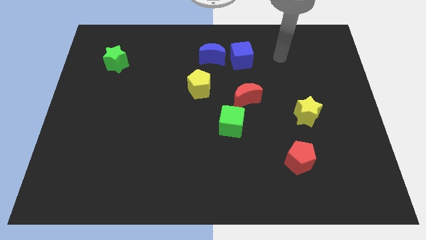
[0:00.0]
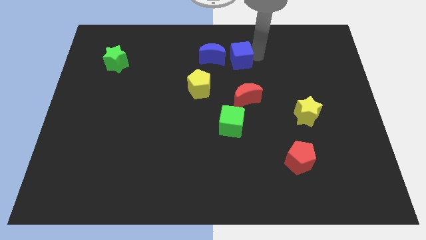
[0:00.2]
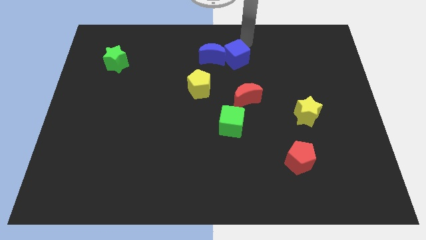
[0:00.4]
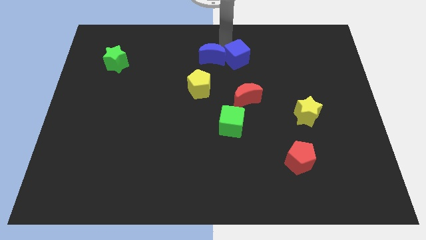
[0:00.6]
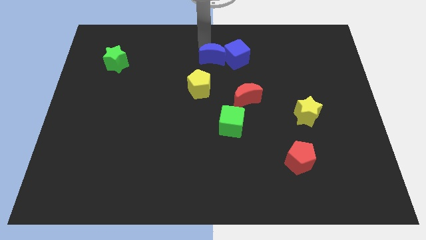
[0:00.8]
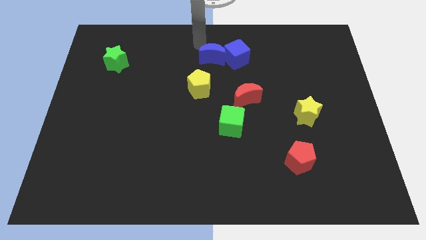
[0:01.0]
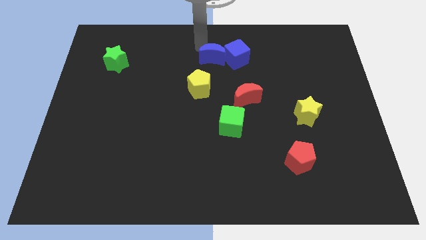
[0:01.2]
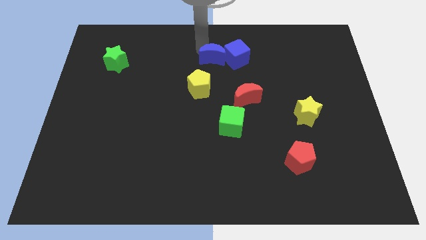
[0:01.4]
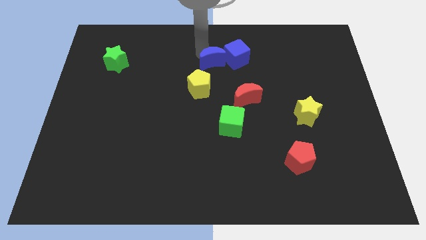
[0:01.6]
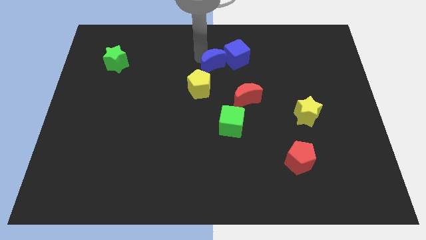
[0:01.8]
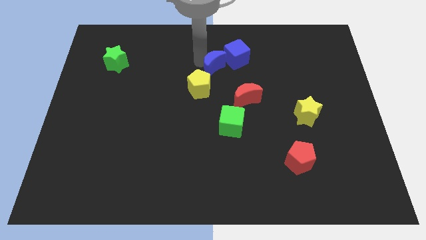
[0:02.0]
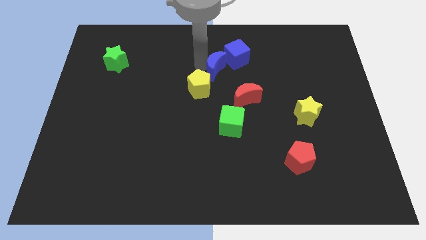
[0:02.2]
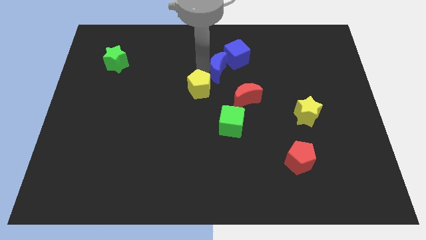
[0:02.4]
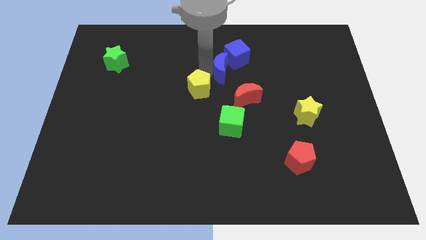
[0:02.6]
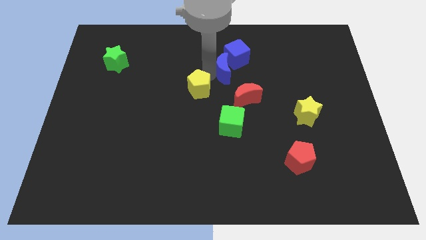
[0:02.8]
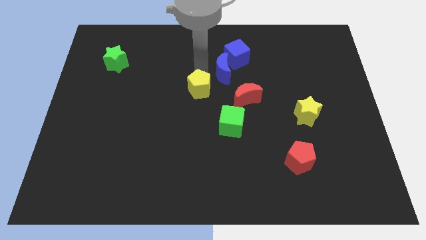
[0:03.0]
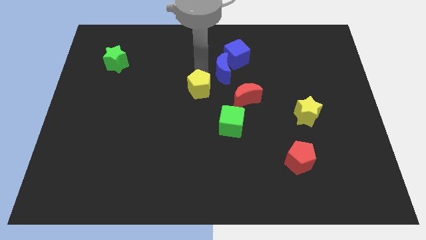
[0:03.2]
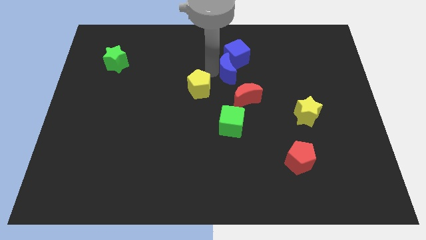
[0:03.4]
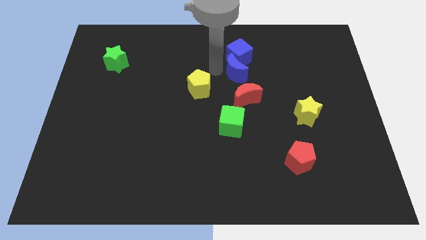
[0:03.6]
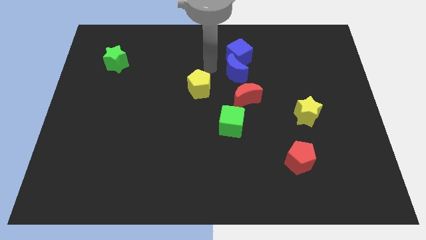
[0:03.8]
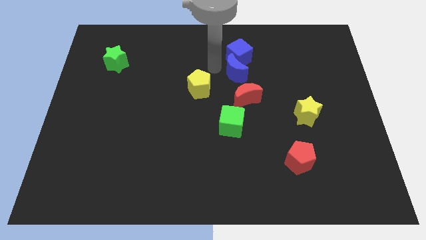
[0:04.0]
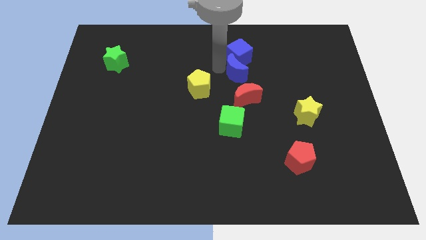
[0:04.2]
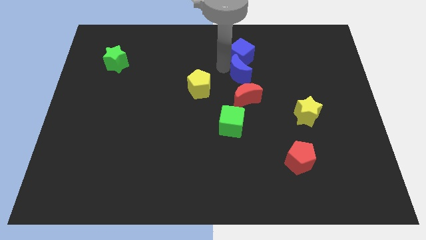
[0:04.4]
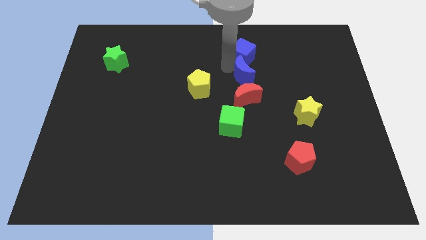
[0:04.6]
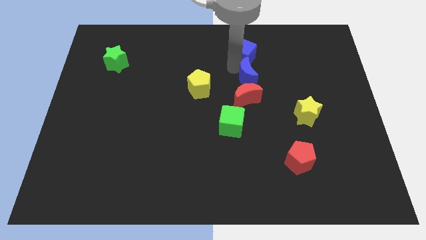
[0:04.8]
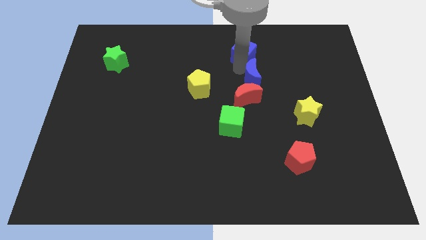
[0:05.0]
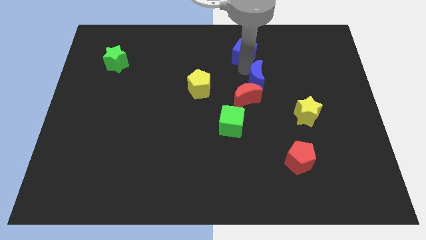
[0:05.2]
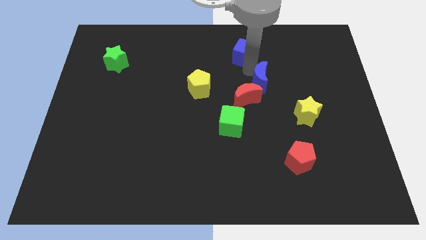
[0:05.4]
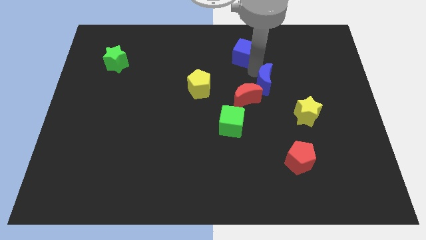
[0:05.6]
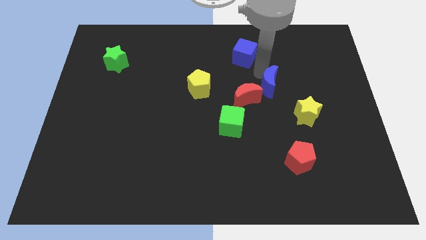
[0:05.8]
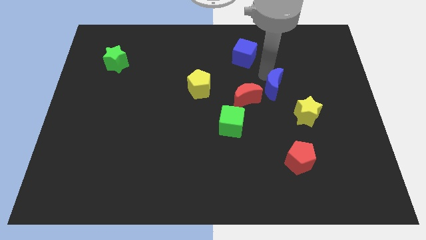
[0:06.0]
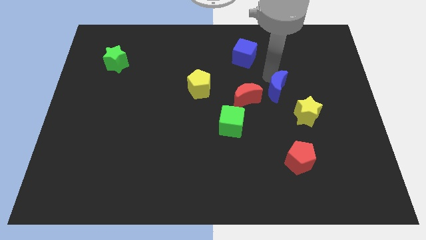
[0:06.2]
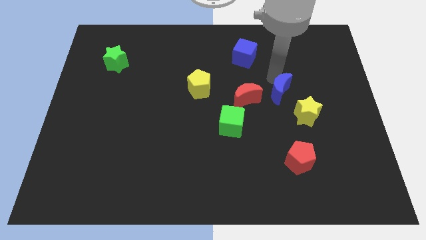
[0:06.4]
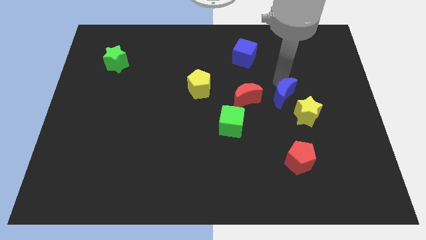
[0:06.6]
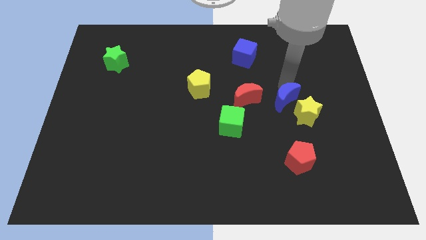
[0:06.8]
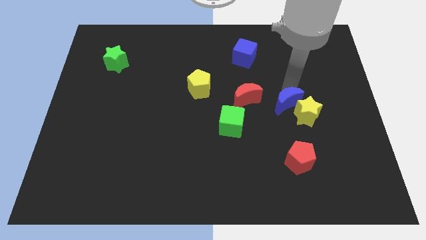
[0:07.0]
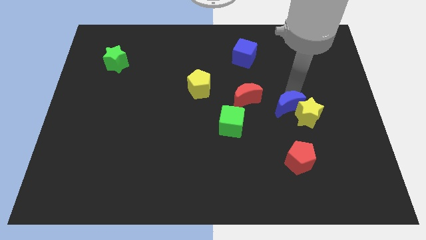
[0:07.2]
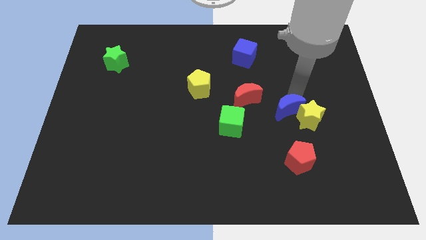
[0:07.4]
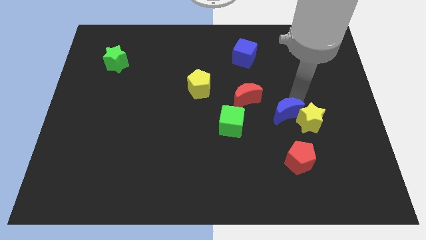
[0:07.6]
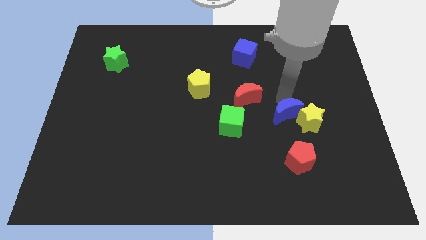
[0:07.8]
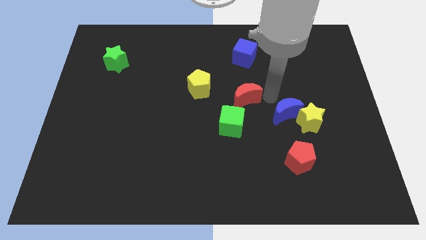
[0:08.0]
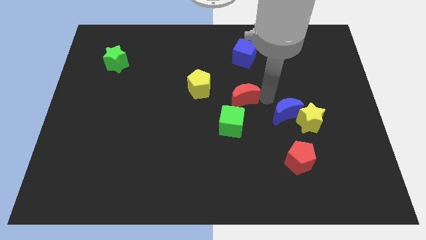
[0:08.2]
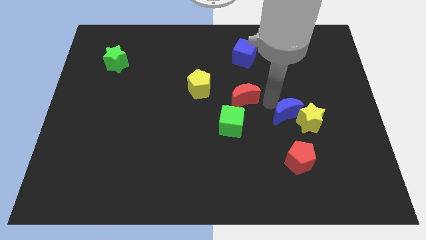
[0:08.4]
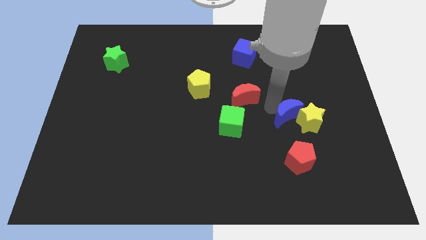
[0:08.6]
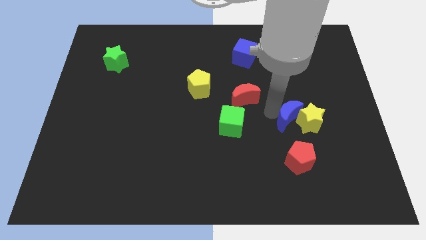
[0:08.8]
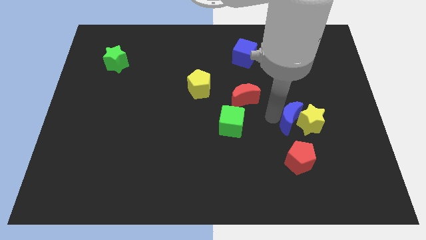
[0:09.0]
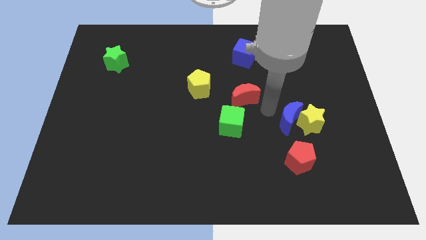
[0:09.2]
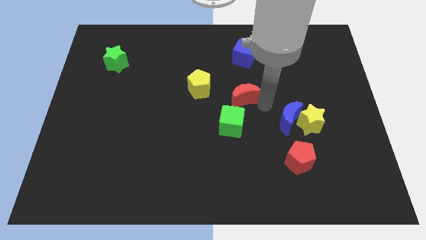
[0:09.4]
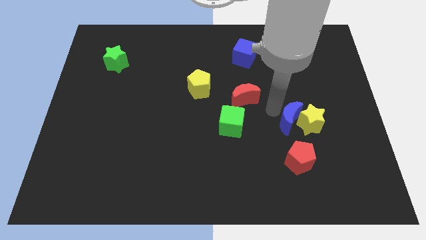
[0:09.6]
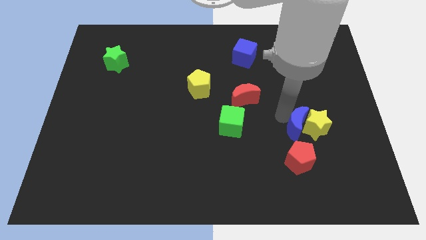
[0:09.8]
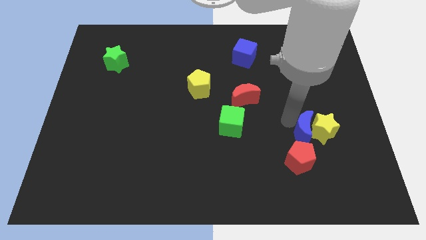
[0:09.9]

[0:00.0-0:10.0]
push the blue moon to the top right of the red pentagon

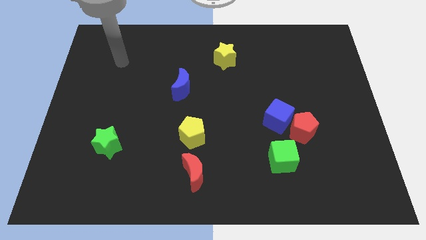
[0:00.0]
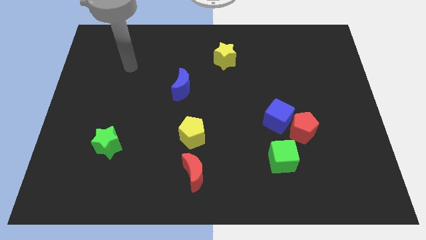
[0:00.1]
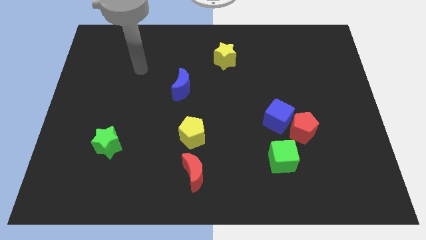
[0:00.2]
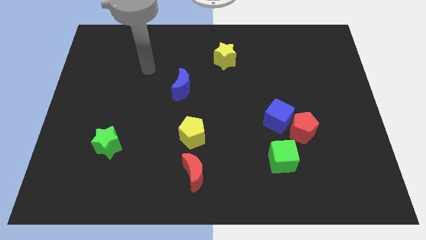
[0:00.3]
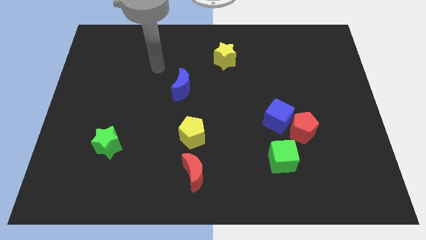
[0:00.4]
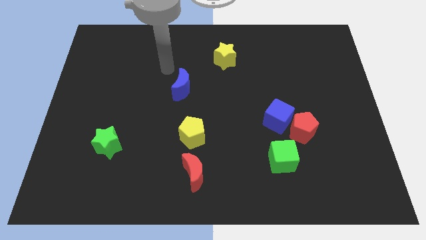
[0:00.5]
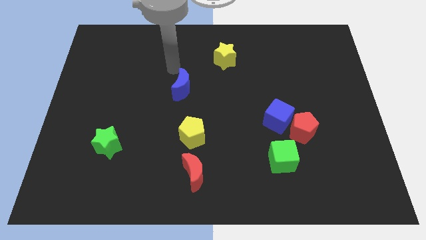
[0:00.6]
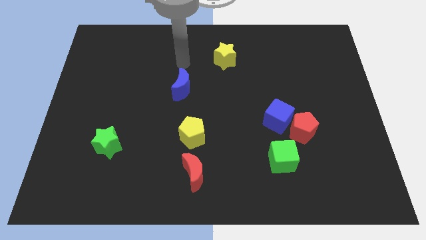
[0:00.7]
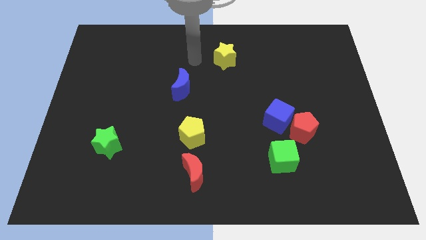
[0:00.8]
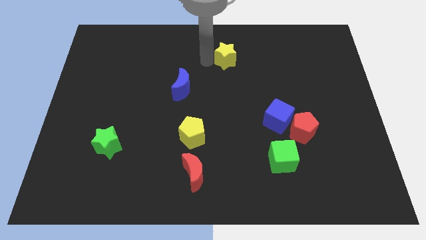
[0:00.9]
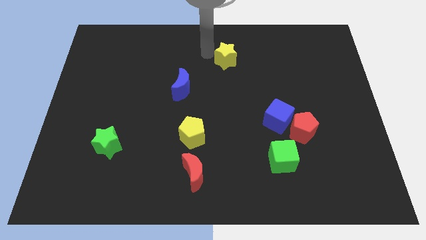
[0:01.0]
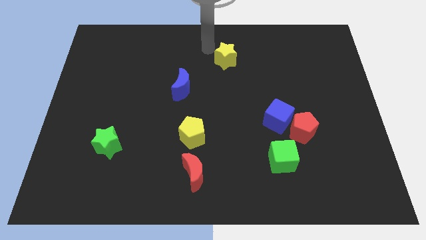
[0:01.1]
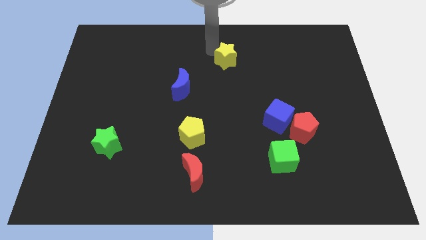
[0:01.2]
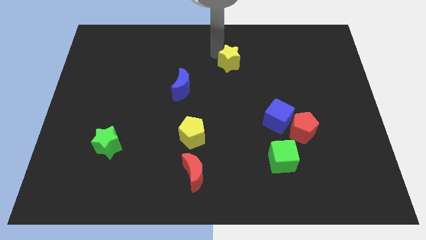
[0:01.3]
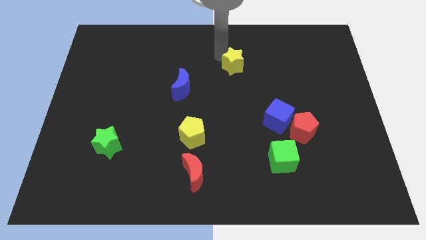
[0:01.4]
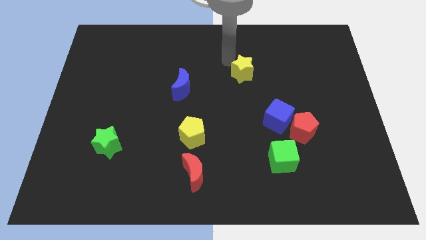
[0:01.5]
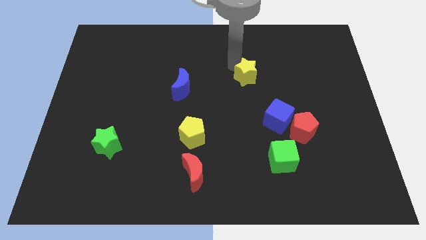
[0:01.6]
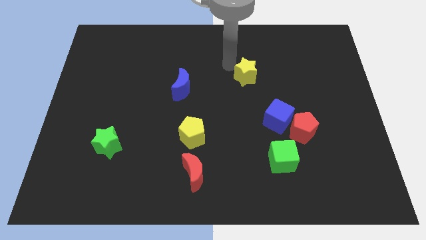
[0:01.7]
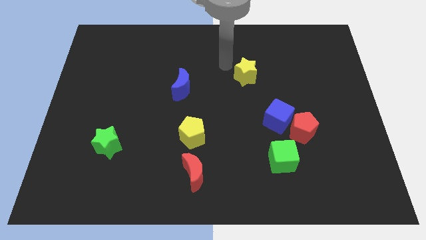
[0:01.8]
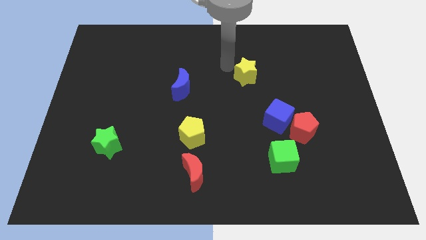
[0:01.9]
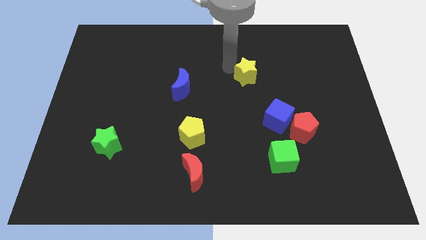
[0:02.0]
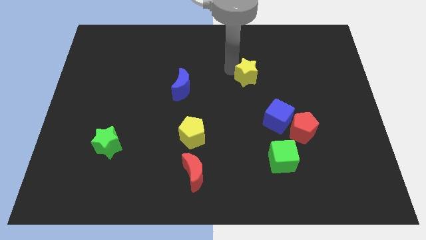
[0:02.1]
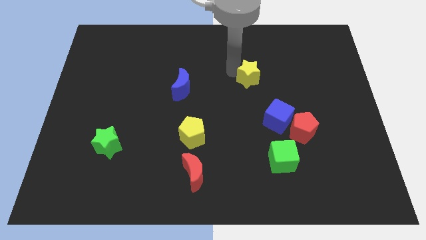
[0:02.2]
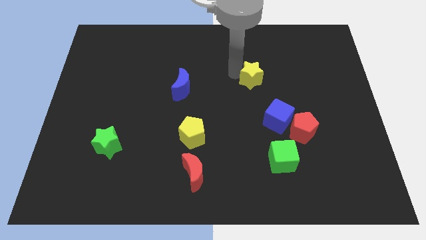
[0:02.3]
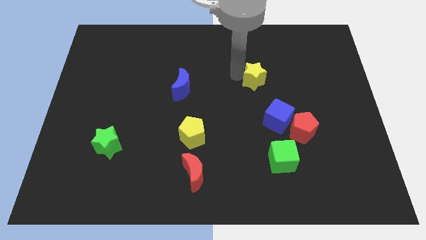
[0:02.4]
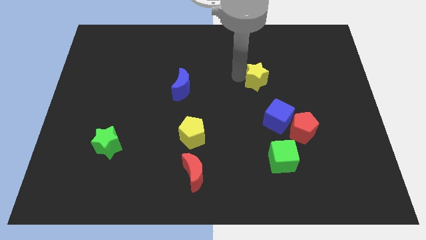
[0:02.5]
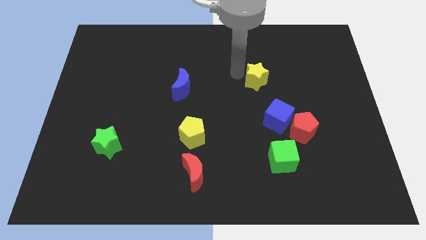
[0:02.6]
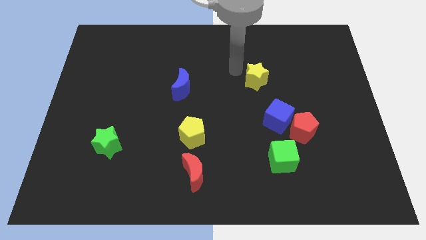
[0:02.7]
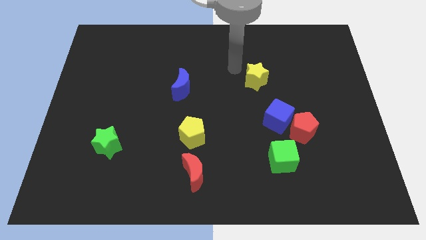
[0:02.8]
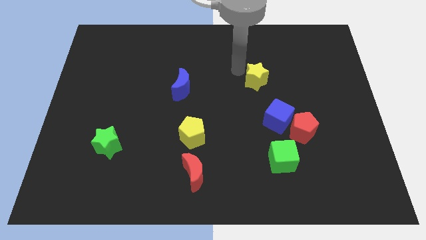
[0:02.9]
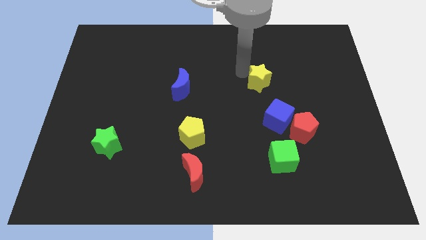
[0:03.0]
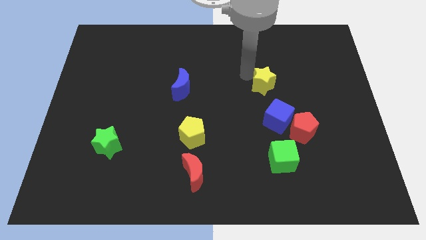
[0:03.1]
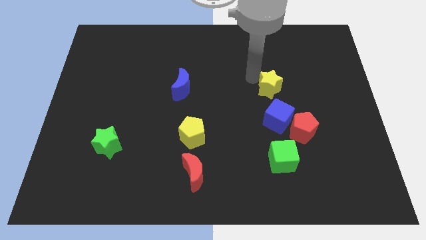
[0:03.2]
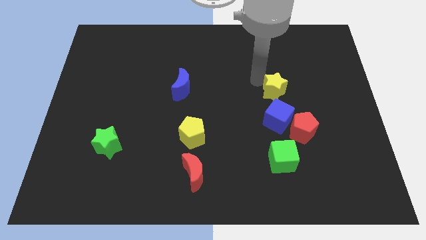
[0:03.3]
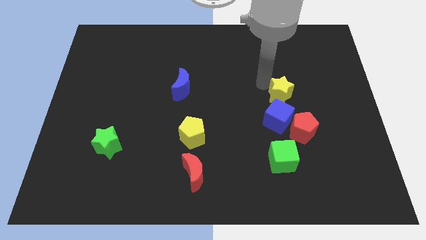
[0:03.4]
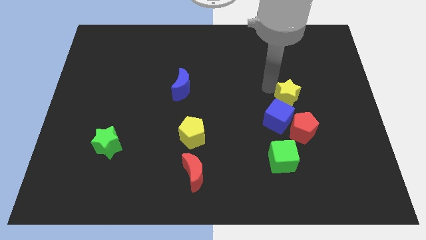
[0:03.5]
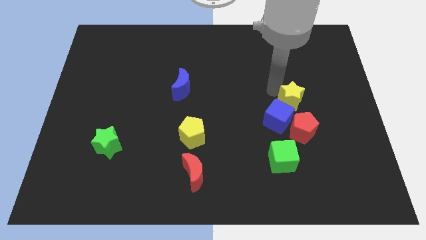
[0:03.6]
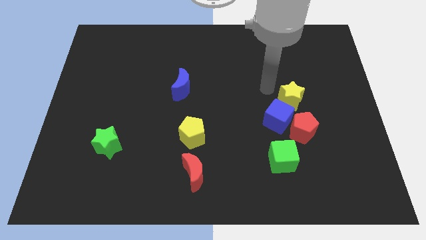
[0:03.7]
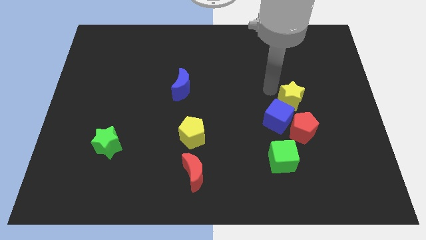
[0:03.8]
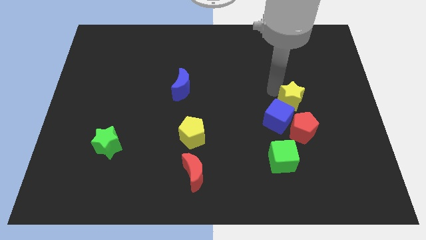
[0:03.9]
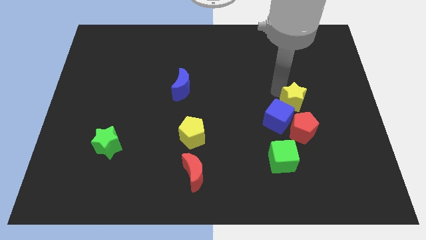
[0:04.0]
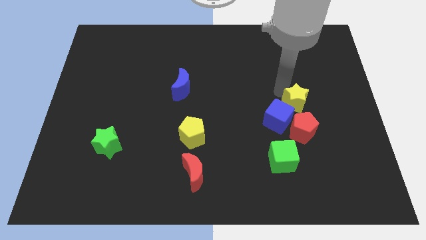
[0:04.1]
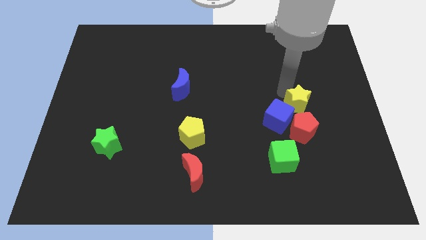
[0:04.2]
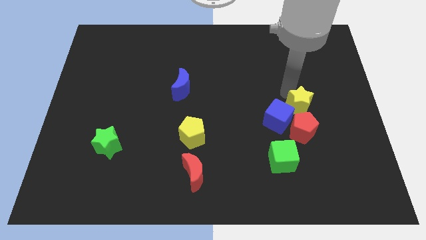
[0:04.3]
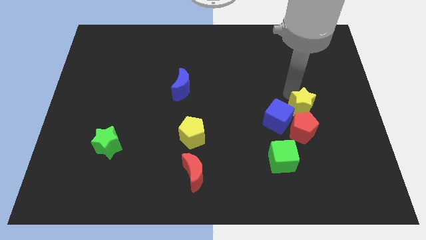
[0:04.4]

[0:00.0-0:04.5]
slide the yellow star to the top right of the red pentagon
